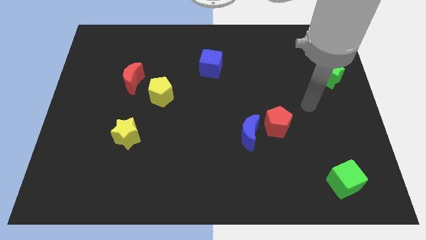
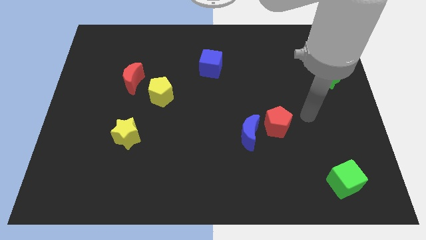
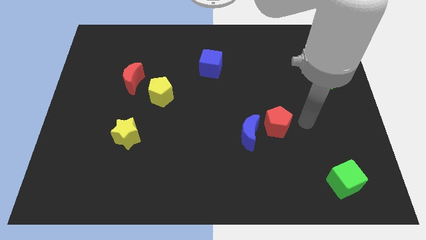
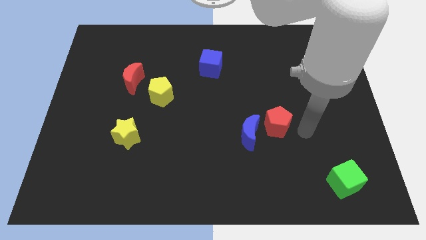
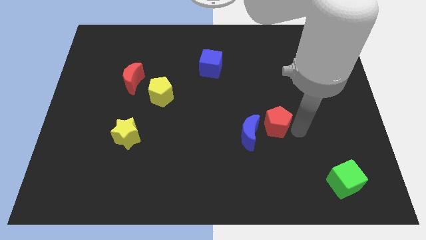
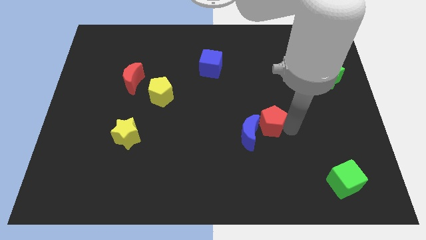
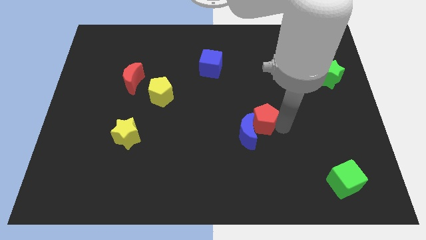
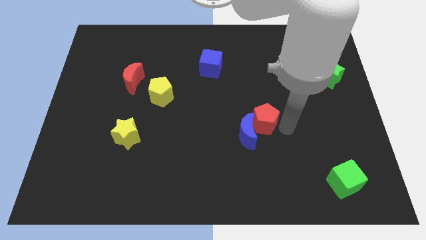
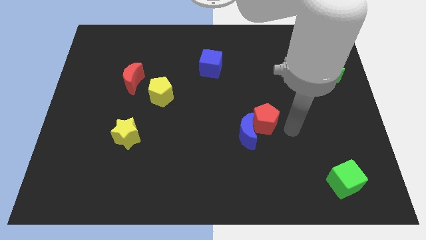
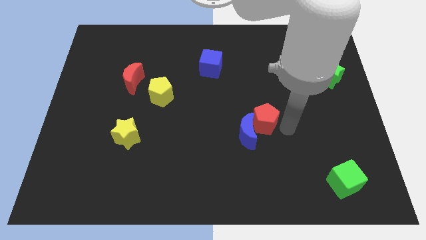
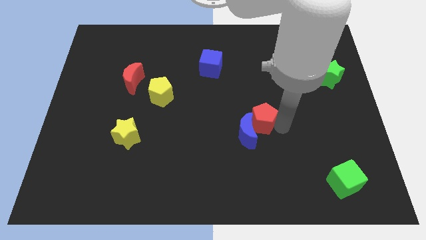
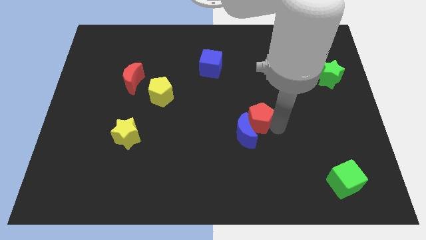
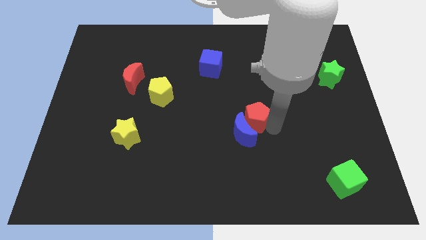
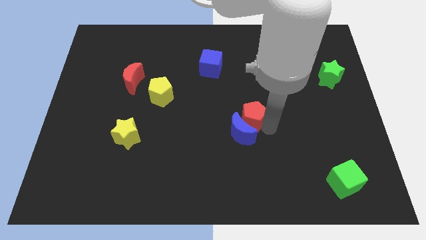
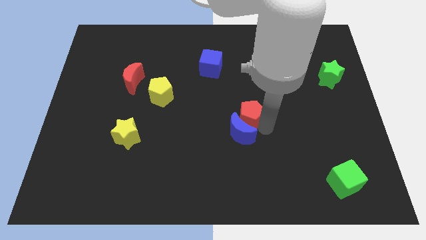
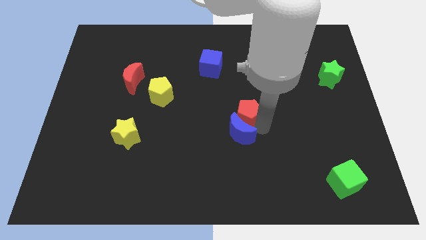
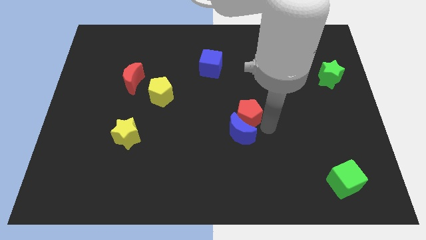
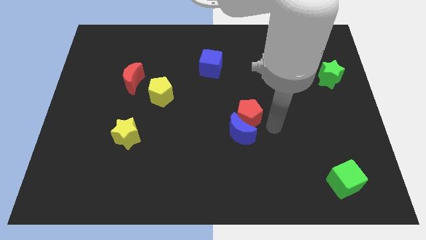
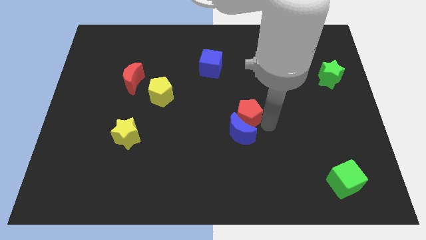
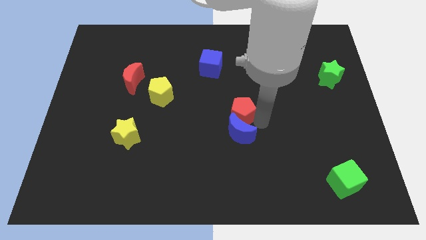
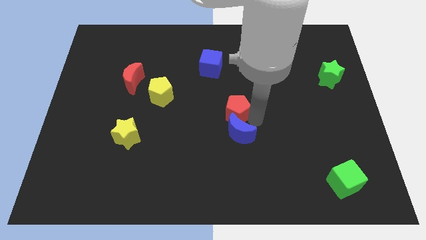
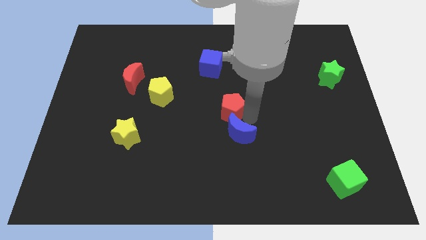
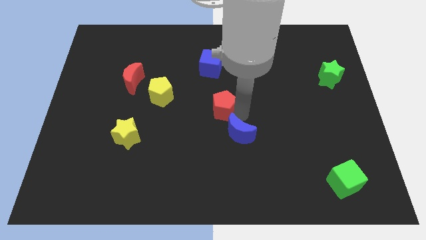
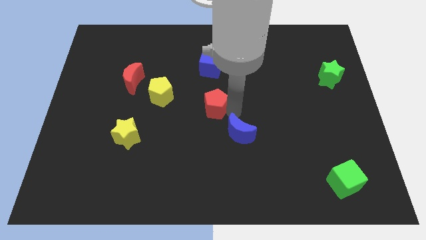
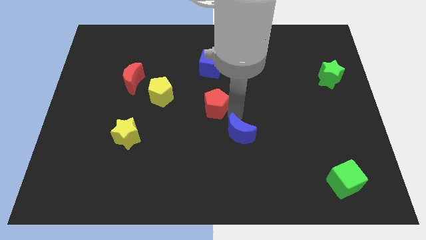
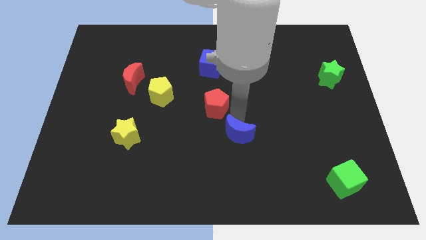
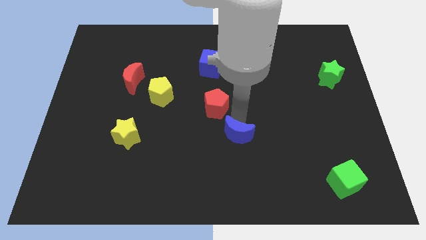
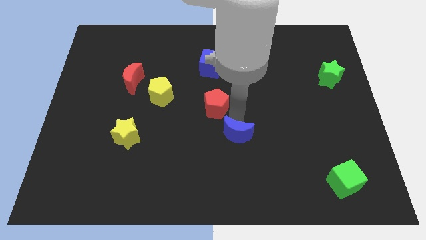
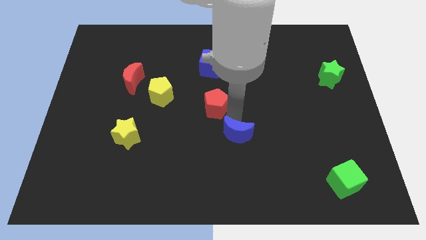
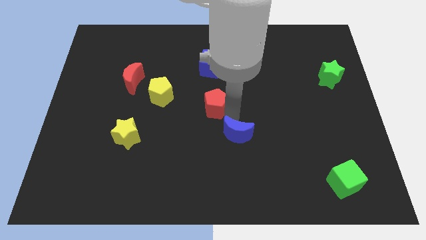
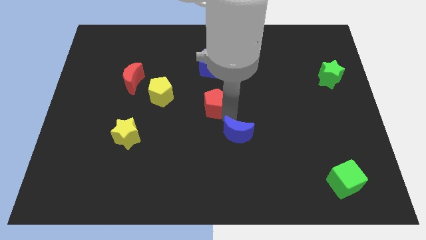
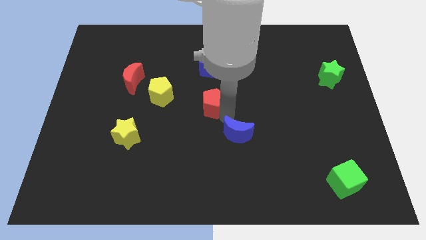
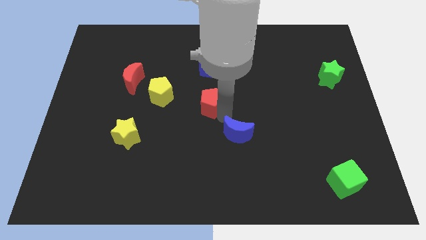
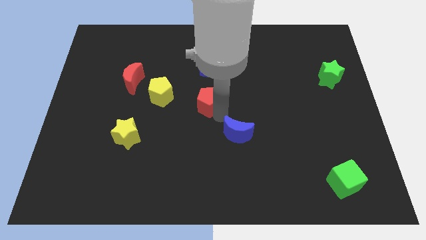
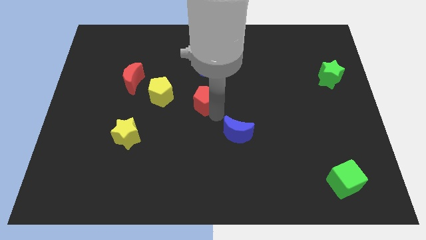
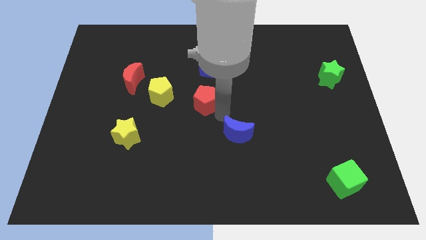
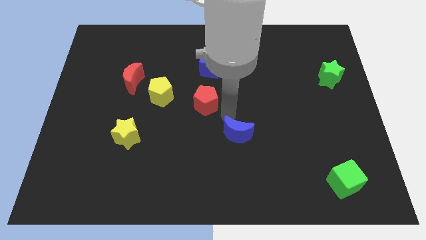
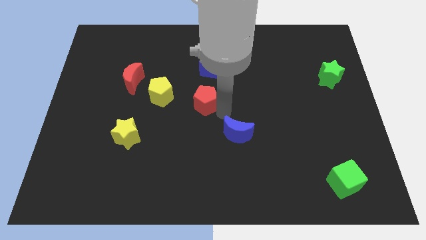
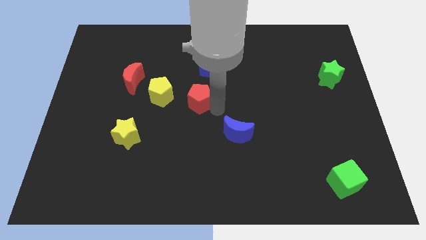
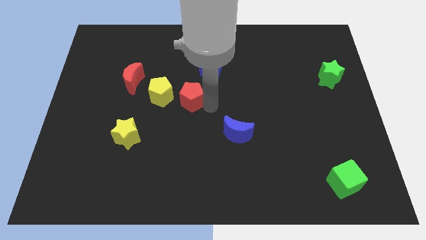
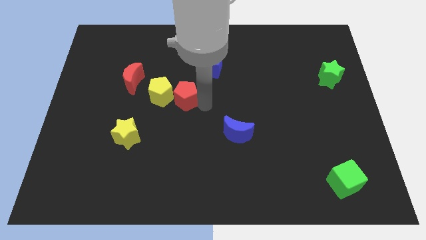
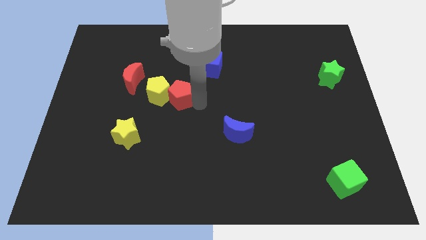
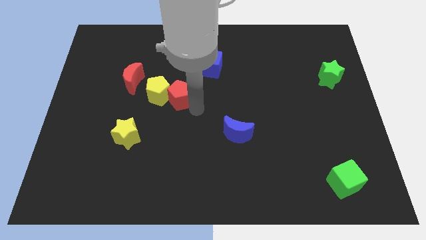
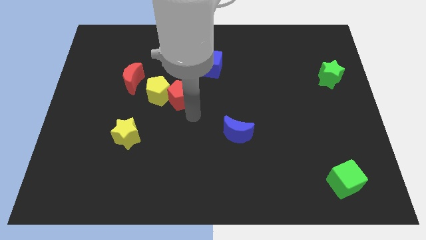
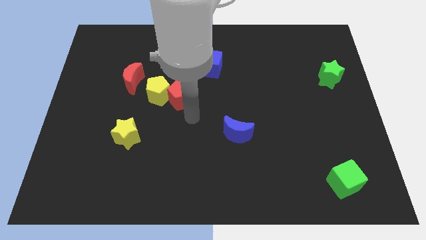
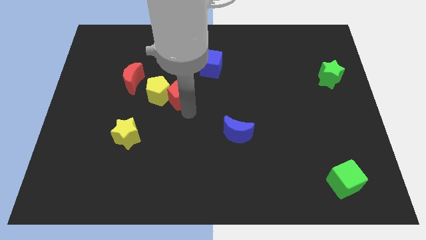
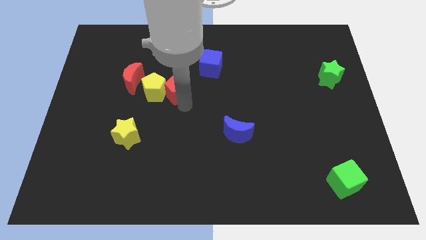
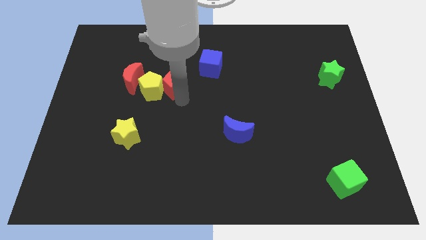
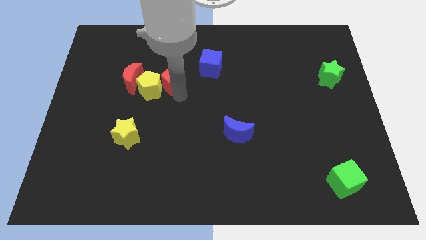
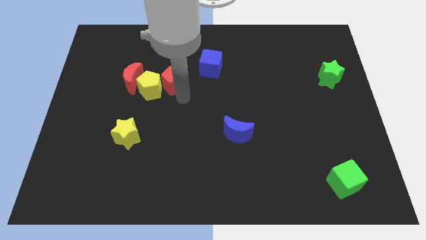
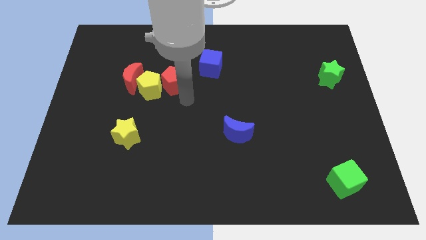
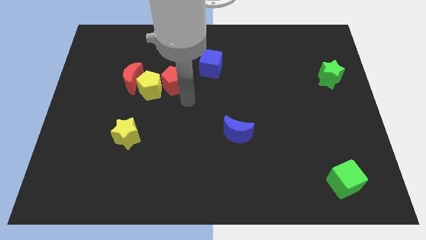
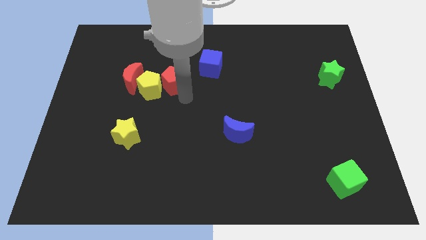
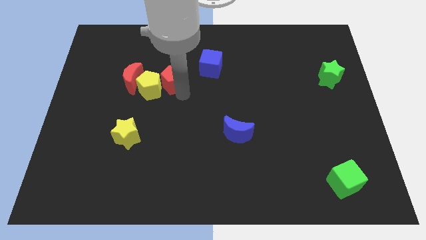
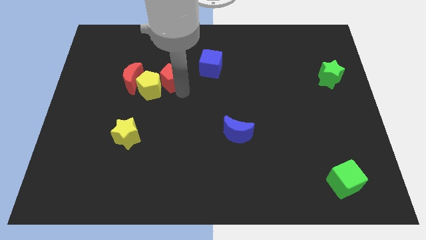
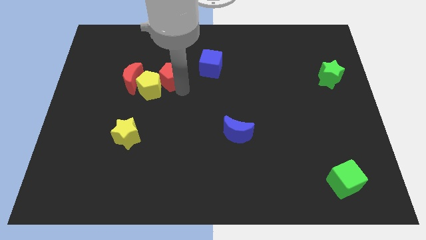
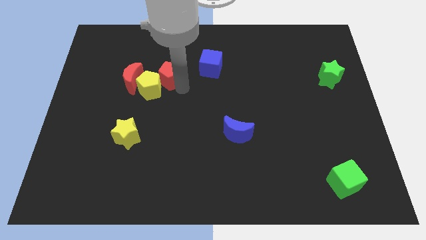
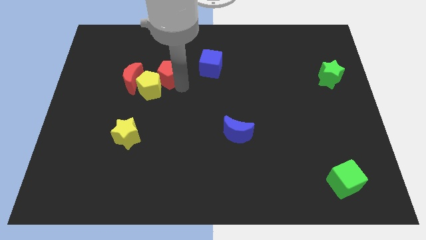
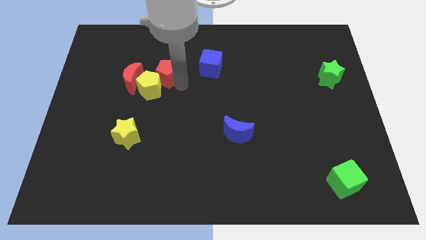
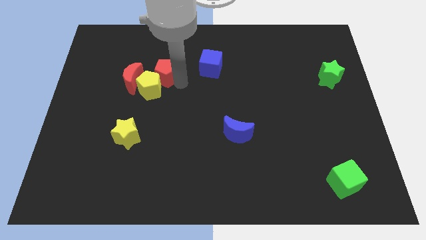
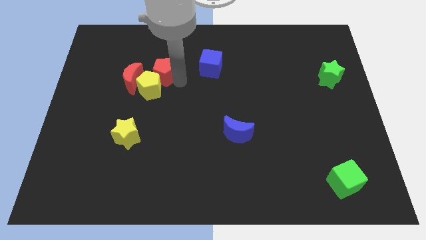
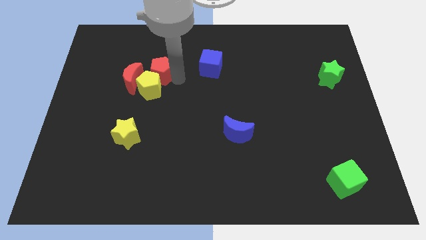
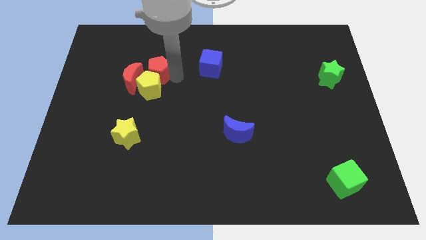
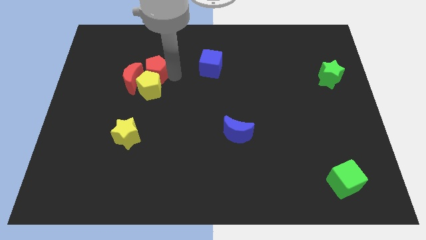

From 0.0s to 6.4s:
put the red pentagon close to the red moon
